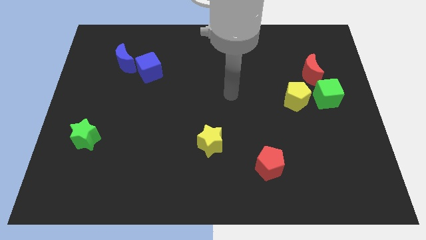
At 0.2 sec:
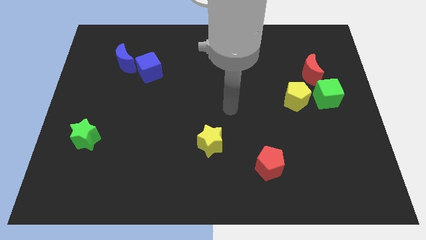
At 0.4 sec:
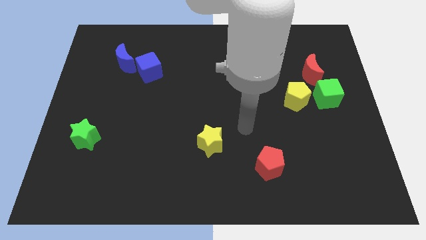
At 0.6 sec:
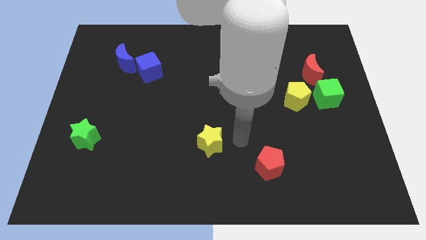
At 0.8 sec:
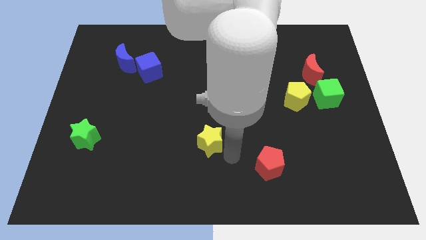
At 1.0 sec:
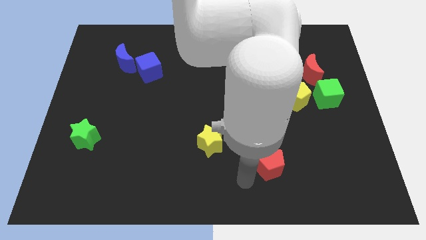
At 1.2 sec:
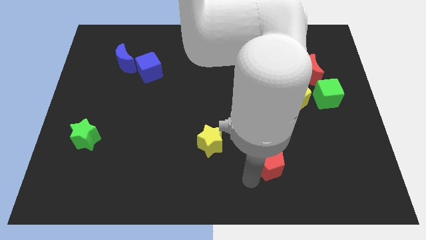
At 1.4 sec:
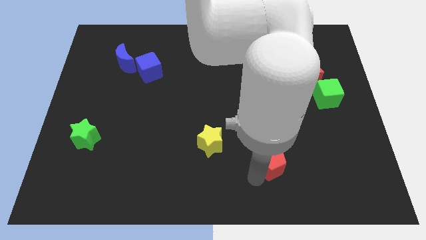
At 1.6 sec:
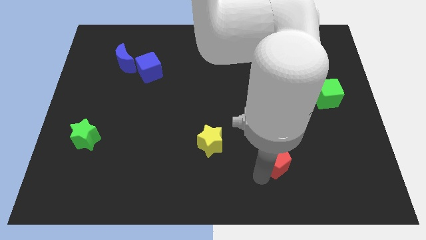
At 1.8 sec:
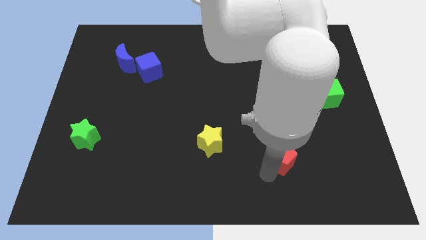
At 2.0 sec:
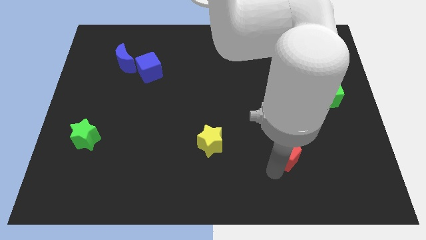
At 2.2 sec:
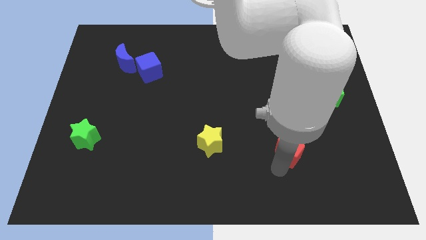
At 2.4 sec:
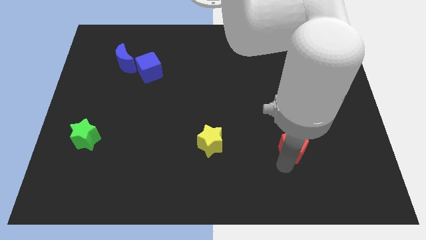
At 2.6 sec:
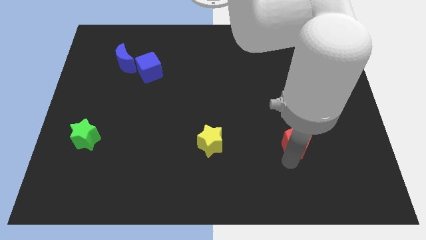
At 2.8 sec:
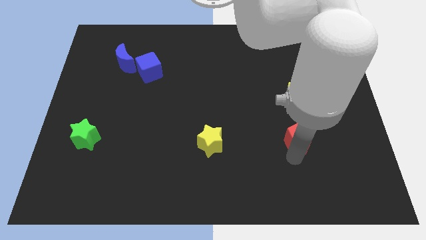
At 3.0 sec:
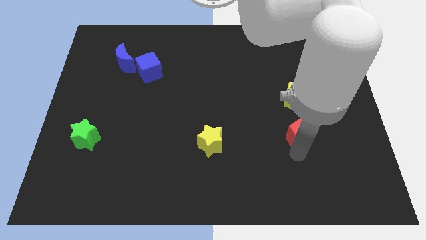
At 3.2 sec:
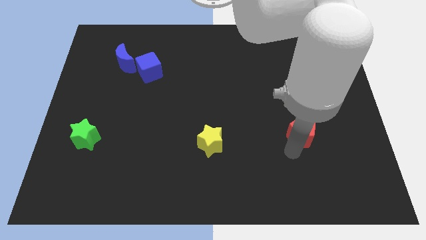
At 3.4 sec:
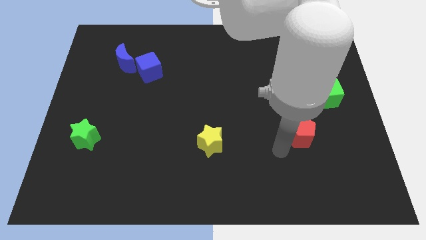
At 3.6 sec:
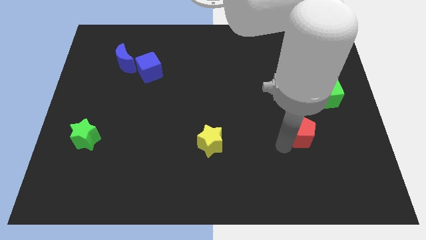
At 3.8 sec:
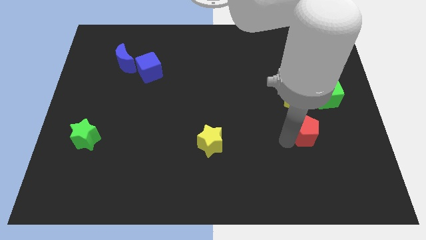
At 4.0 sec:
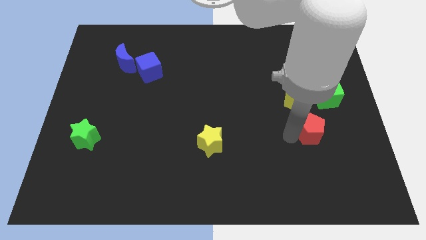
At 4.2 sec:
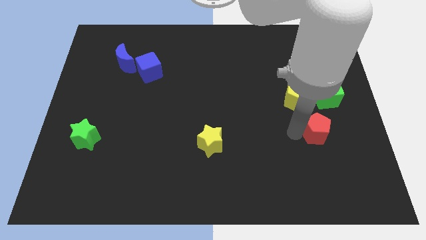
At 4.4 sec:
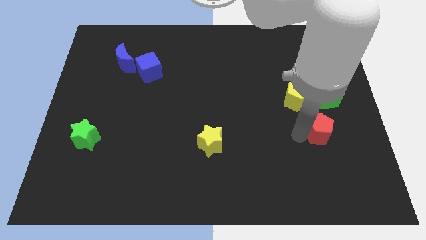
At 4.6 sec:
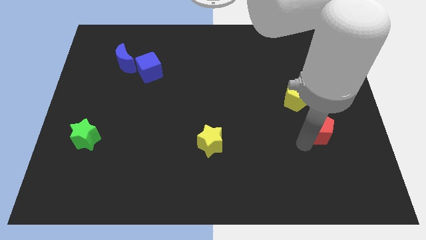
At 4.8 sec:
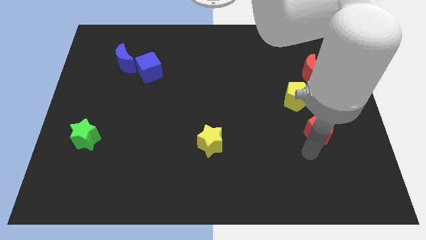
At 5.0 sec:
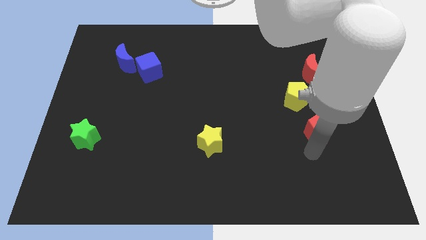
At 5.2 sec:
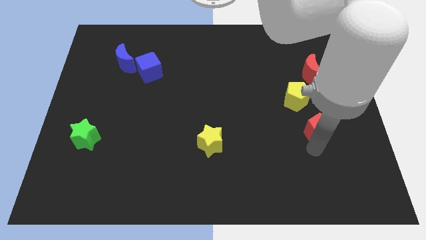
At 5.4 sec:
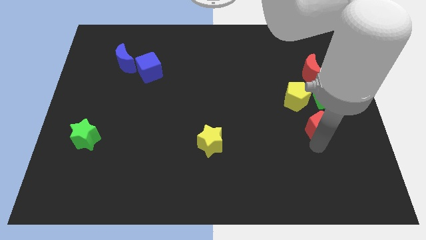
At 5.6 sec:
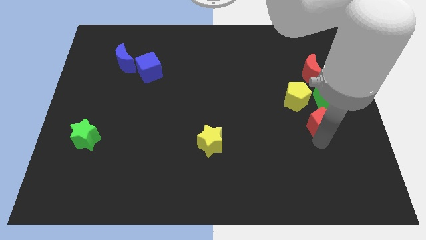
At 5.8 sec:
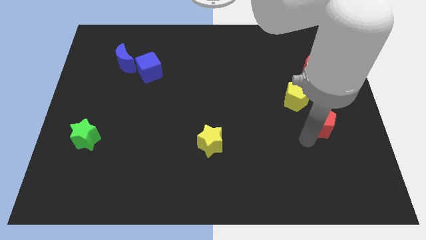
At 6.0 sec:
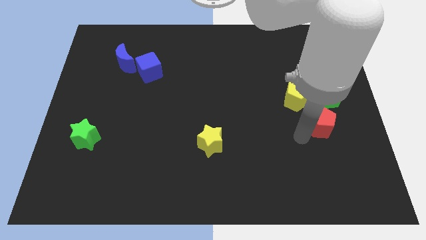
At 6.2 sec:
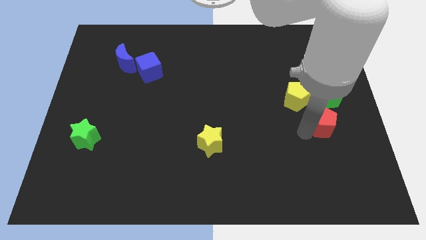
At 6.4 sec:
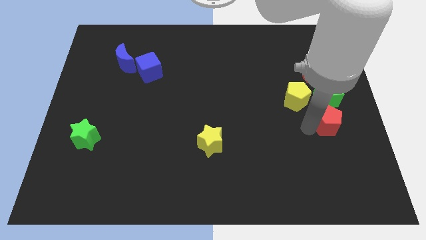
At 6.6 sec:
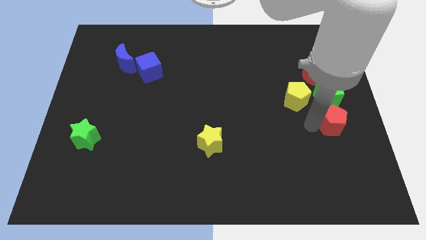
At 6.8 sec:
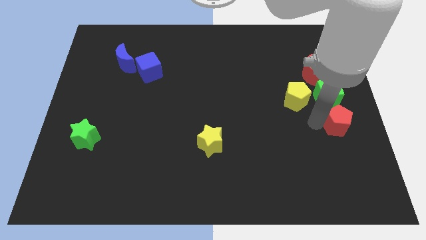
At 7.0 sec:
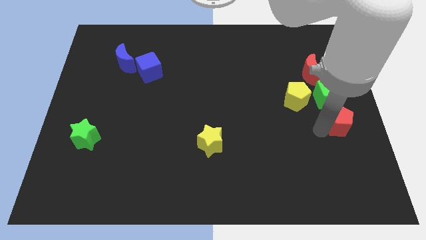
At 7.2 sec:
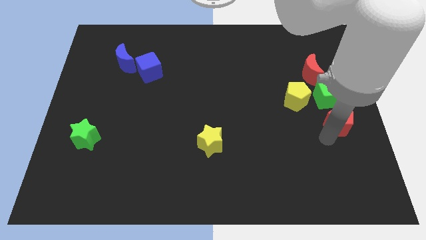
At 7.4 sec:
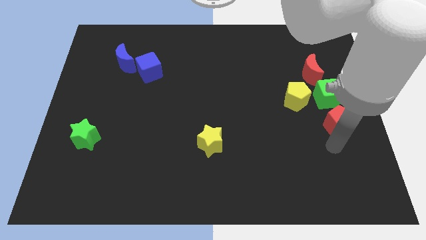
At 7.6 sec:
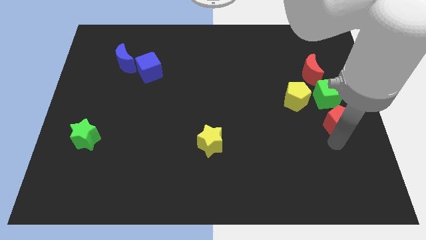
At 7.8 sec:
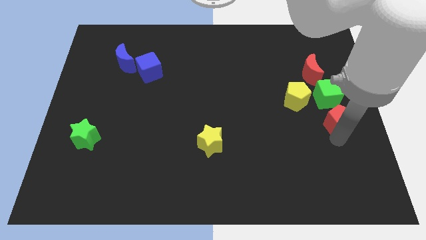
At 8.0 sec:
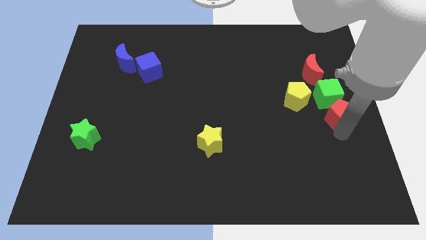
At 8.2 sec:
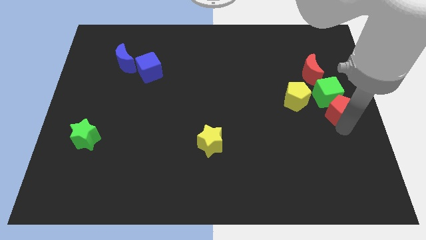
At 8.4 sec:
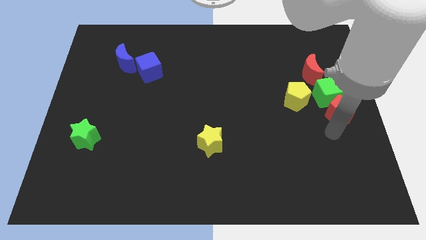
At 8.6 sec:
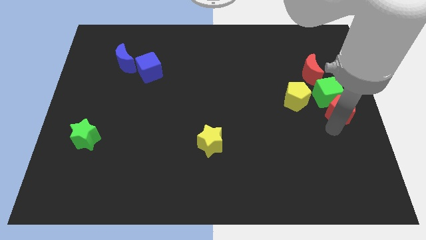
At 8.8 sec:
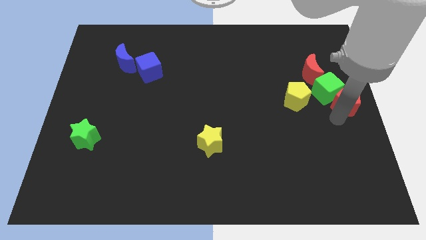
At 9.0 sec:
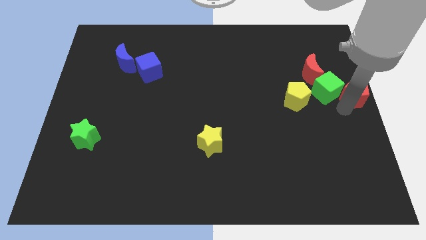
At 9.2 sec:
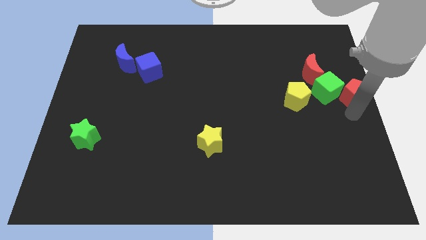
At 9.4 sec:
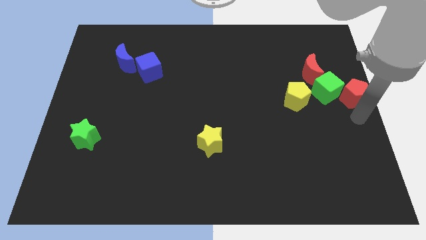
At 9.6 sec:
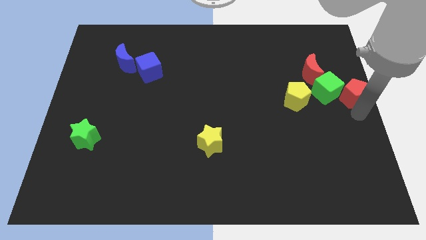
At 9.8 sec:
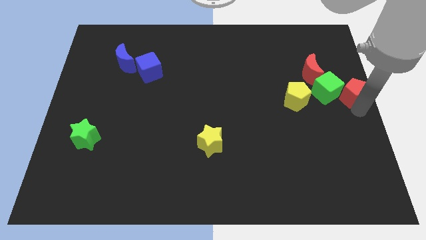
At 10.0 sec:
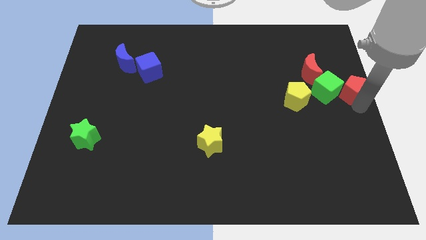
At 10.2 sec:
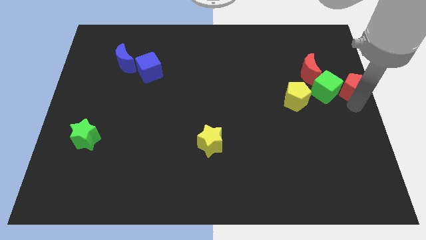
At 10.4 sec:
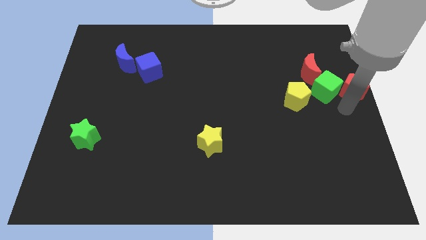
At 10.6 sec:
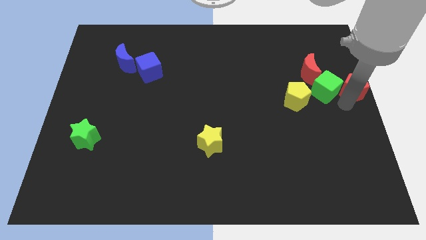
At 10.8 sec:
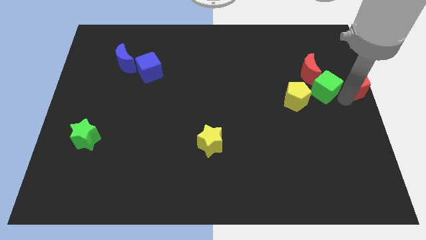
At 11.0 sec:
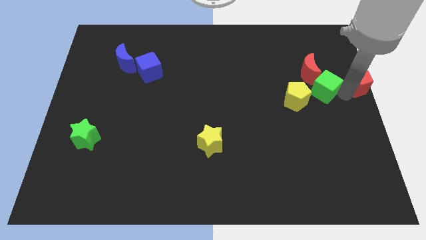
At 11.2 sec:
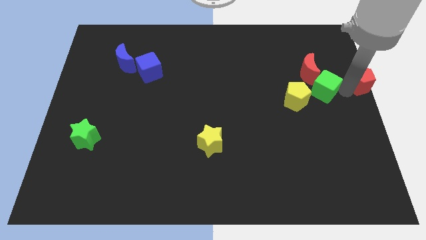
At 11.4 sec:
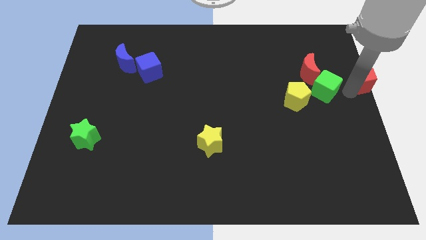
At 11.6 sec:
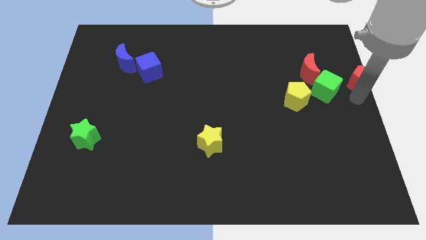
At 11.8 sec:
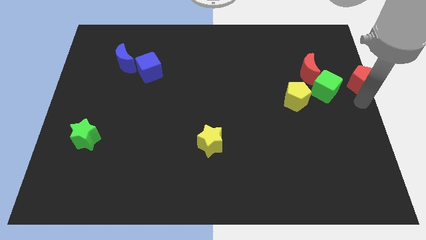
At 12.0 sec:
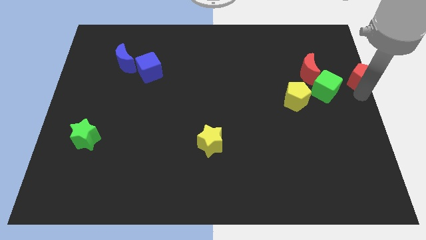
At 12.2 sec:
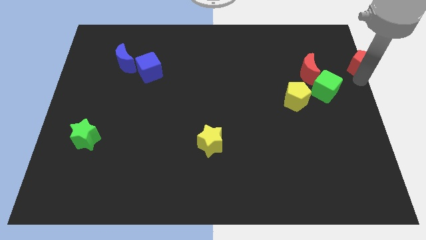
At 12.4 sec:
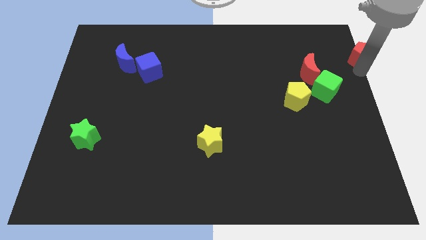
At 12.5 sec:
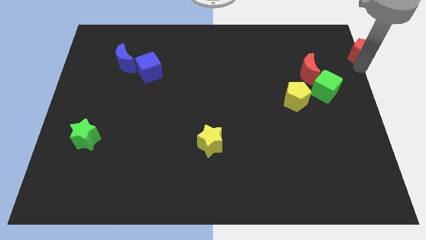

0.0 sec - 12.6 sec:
move the red pentagon to the top right corner

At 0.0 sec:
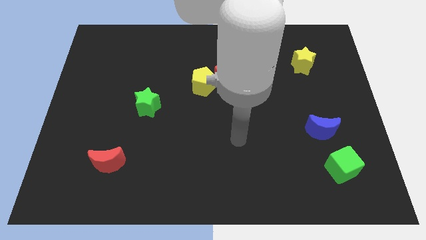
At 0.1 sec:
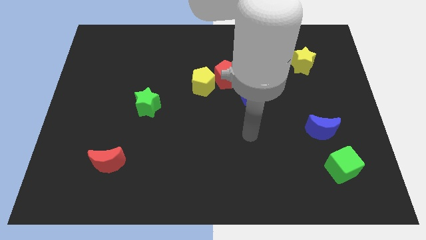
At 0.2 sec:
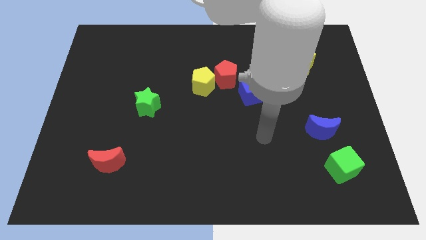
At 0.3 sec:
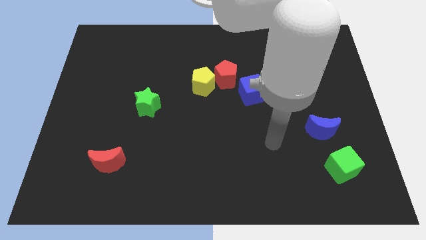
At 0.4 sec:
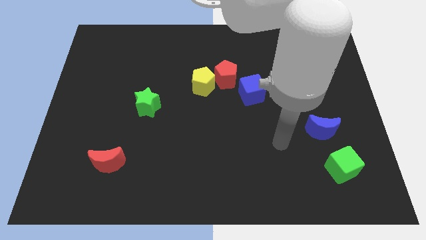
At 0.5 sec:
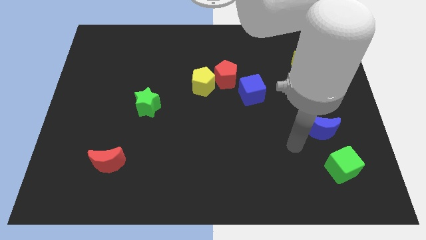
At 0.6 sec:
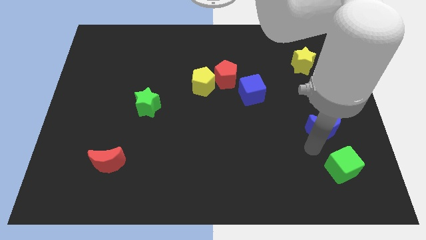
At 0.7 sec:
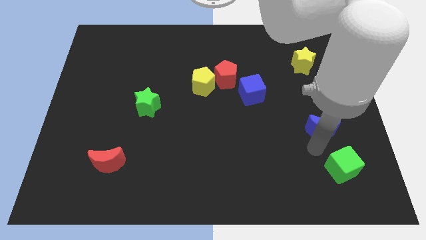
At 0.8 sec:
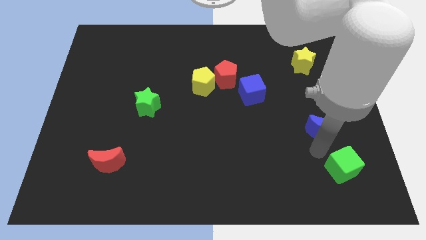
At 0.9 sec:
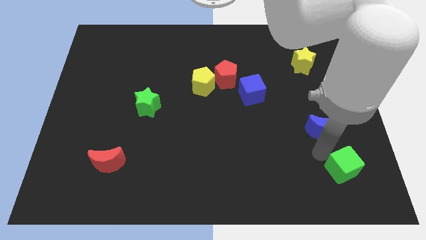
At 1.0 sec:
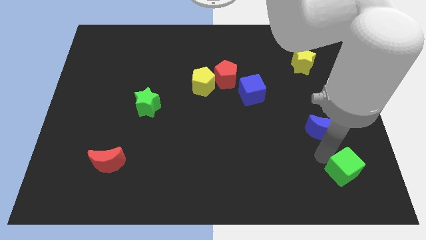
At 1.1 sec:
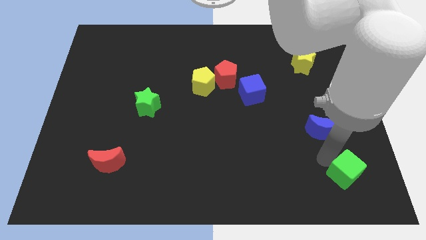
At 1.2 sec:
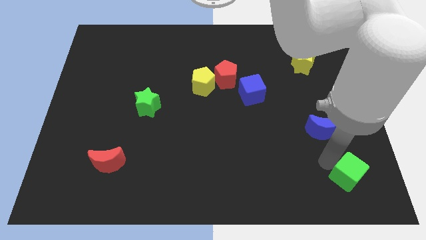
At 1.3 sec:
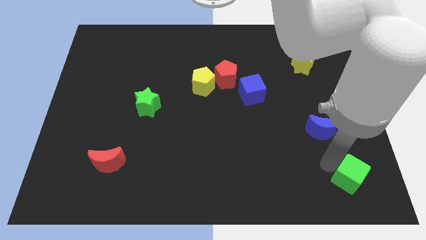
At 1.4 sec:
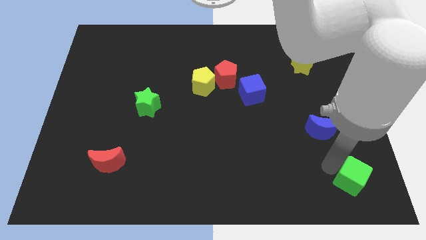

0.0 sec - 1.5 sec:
put the green cube to the bottom right corner
